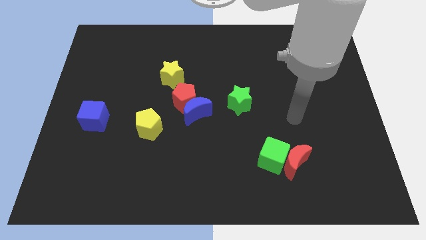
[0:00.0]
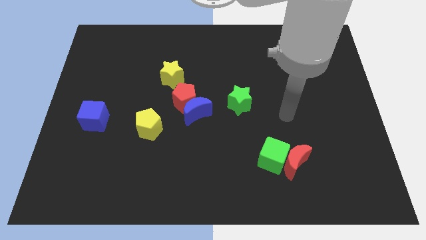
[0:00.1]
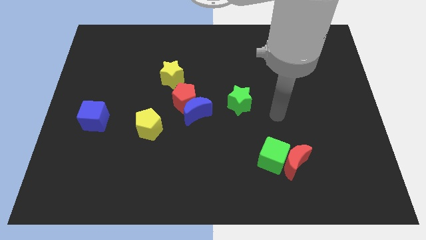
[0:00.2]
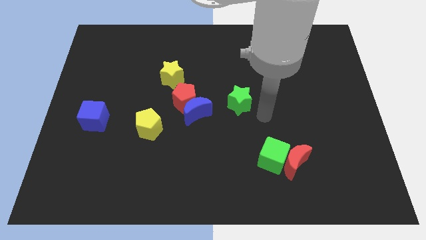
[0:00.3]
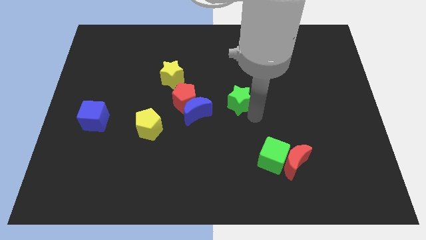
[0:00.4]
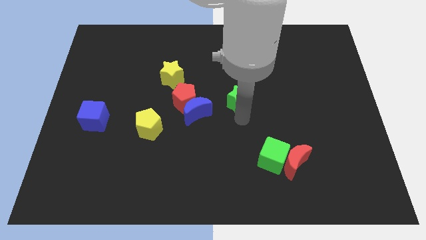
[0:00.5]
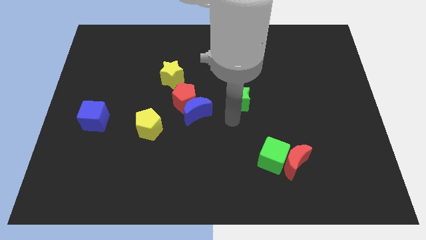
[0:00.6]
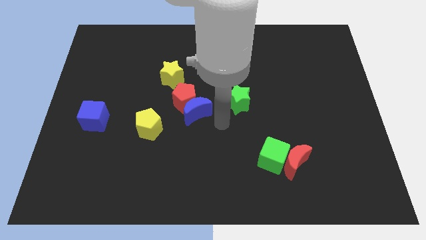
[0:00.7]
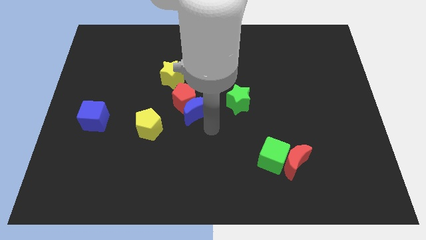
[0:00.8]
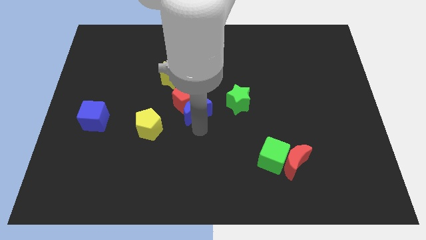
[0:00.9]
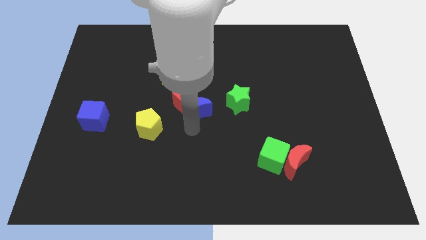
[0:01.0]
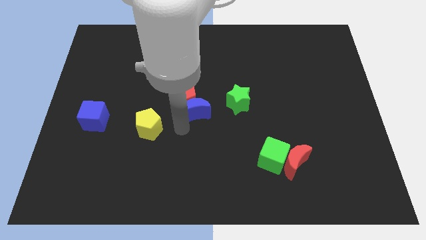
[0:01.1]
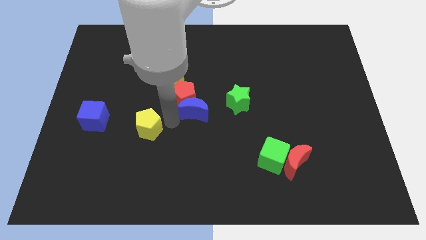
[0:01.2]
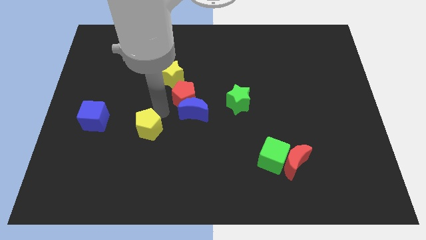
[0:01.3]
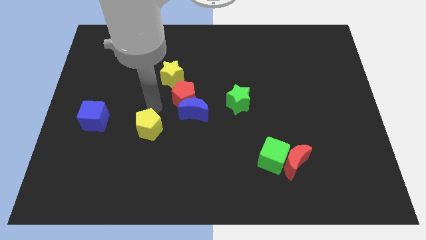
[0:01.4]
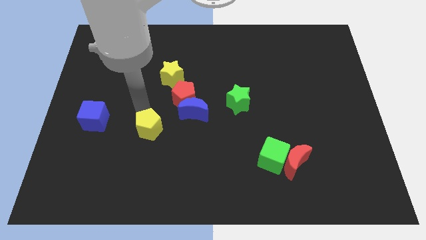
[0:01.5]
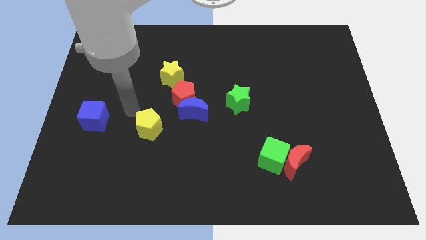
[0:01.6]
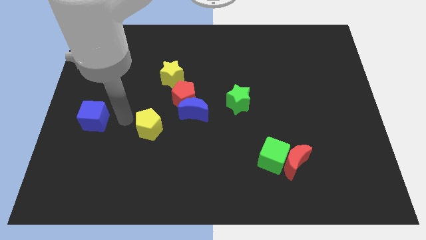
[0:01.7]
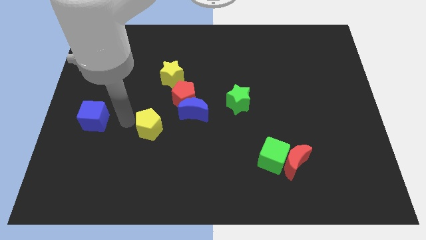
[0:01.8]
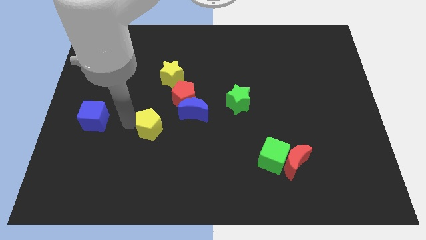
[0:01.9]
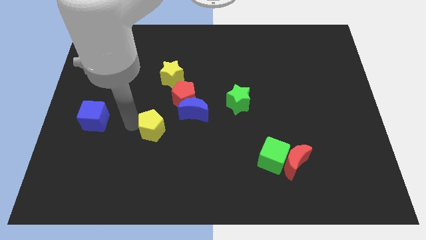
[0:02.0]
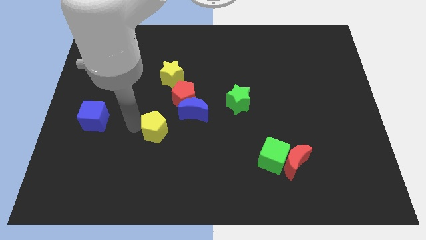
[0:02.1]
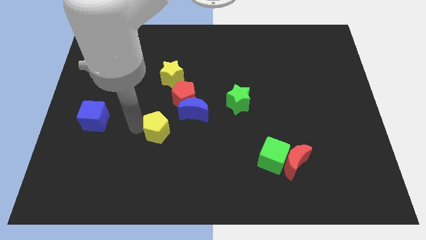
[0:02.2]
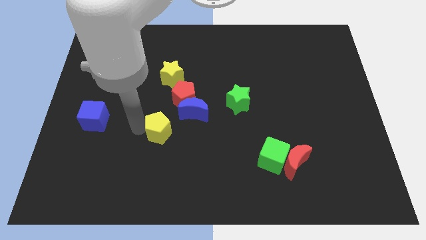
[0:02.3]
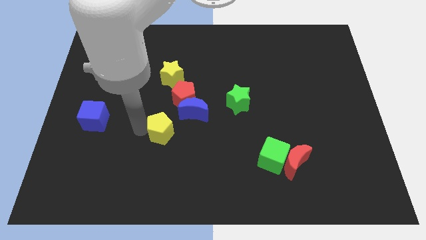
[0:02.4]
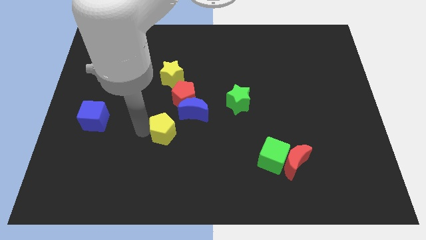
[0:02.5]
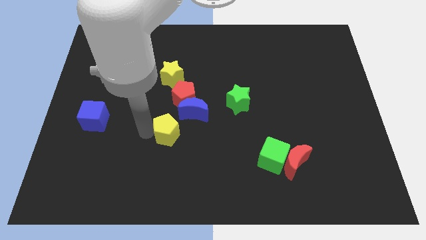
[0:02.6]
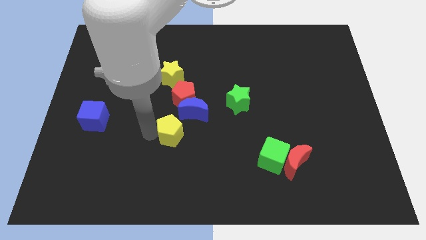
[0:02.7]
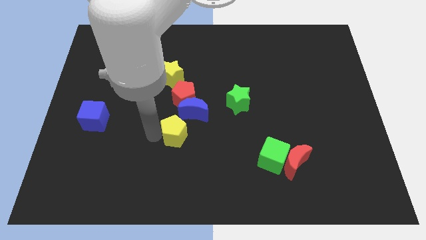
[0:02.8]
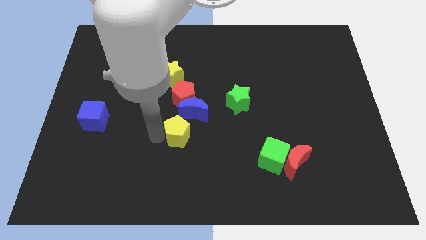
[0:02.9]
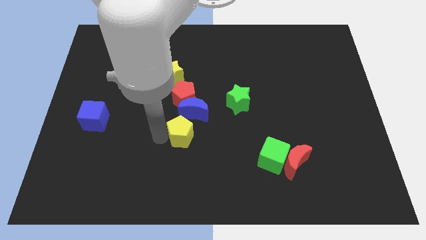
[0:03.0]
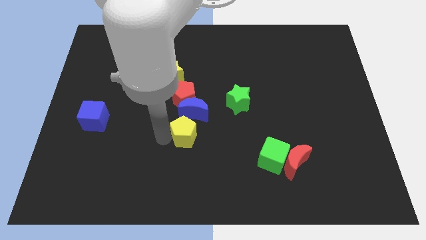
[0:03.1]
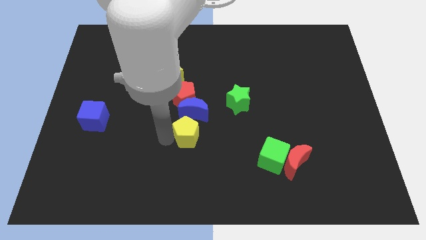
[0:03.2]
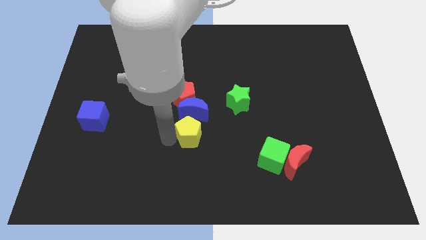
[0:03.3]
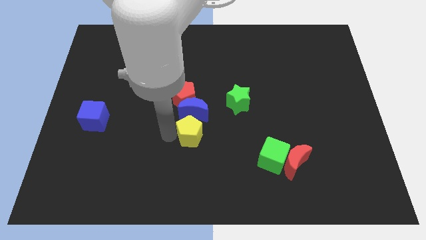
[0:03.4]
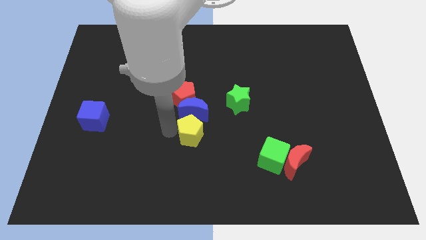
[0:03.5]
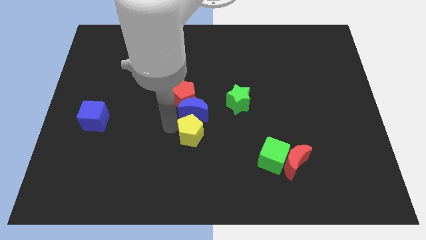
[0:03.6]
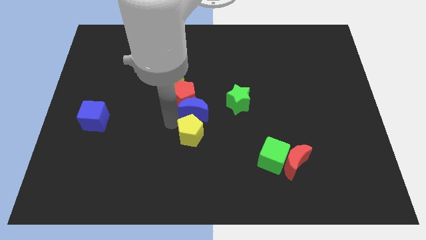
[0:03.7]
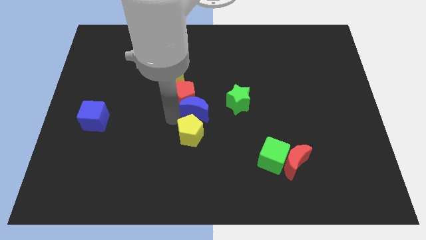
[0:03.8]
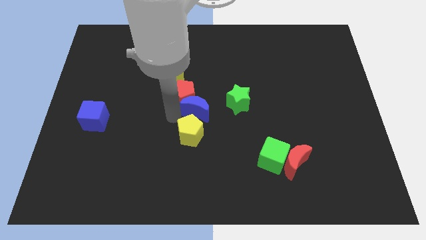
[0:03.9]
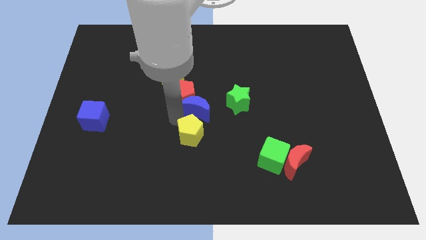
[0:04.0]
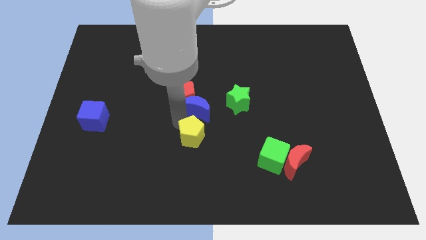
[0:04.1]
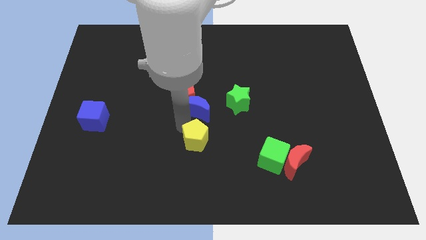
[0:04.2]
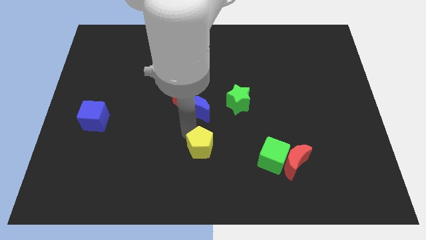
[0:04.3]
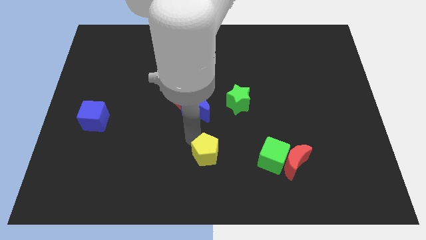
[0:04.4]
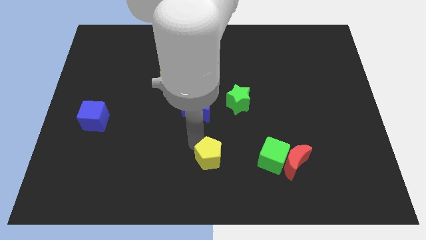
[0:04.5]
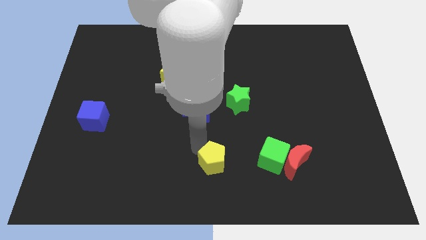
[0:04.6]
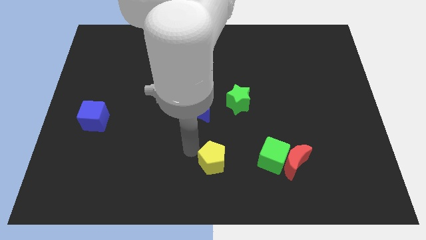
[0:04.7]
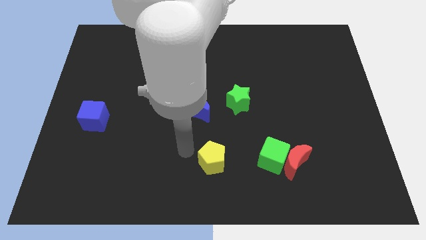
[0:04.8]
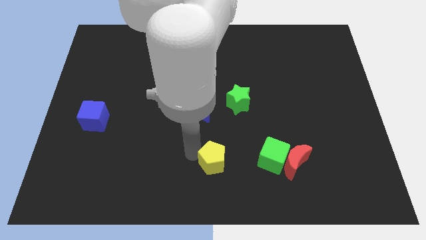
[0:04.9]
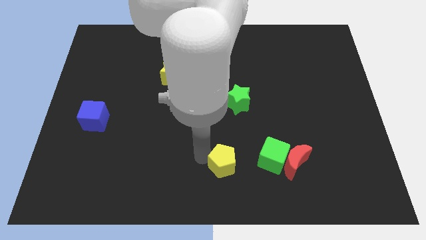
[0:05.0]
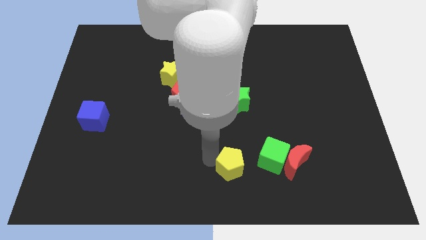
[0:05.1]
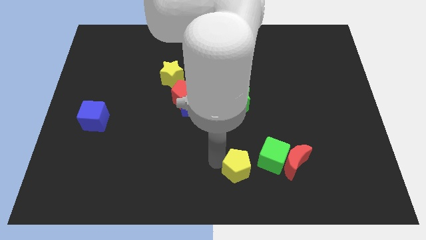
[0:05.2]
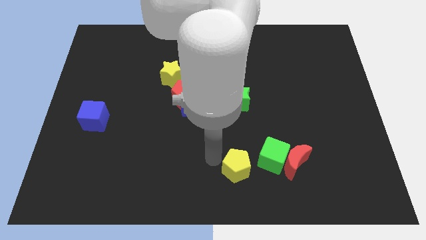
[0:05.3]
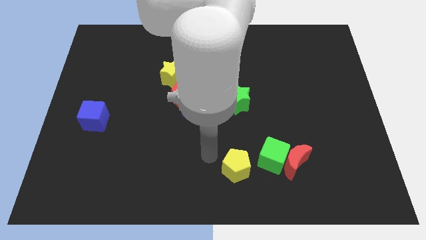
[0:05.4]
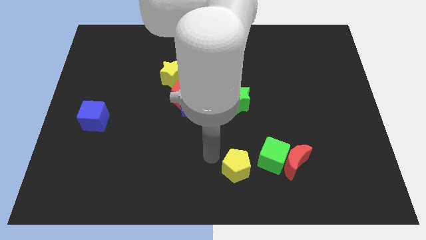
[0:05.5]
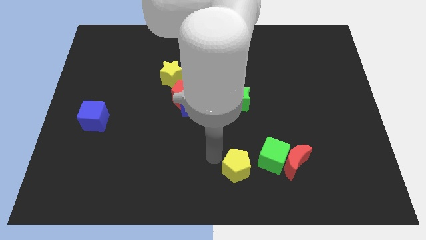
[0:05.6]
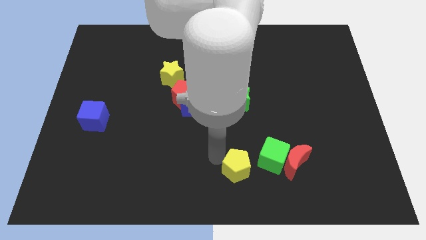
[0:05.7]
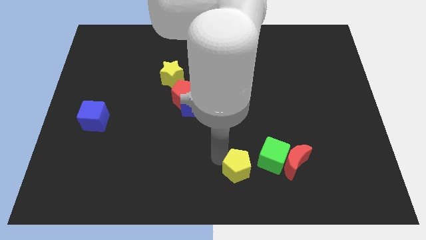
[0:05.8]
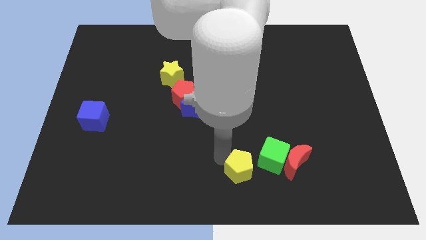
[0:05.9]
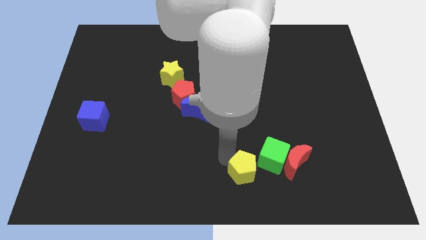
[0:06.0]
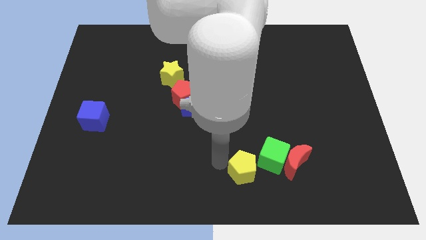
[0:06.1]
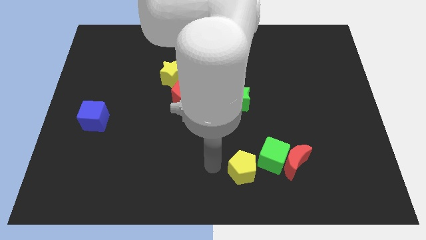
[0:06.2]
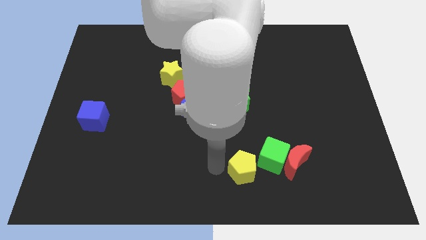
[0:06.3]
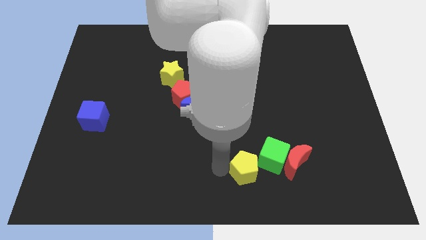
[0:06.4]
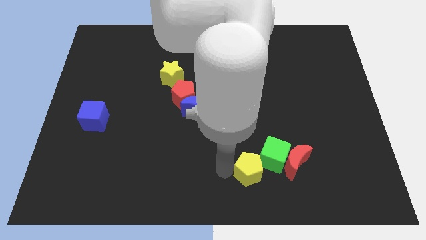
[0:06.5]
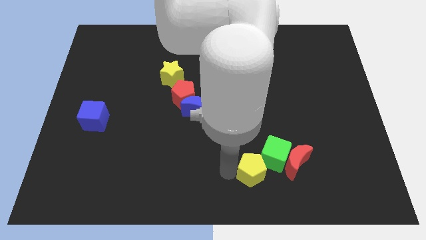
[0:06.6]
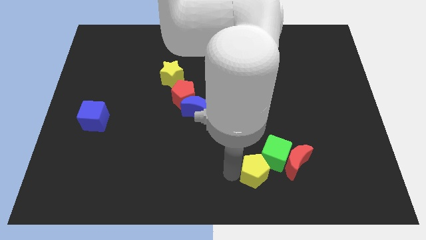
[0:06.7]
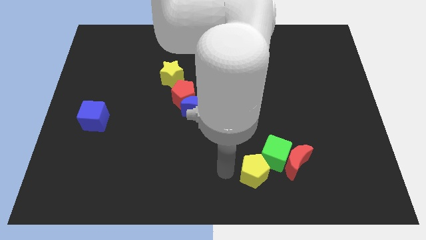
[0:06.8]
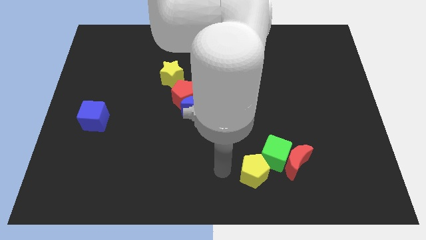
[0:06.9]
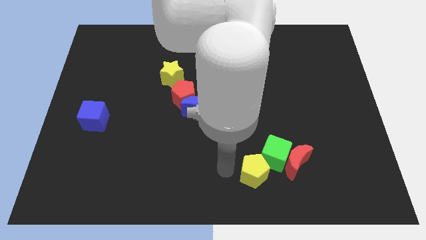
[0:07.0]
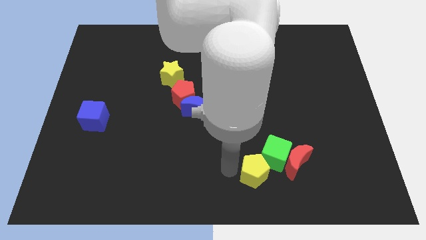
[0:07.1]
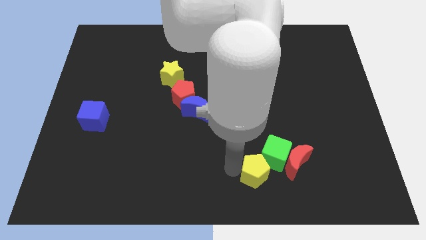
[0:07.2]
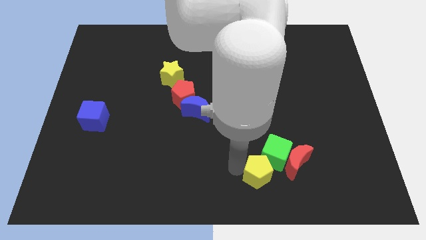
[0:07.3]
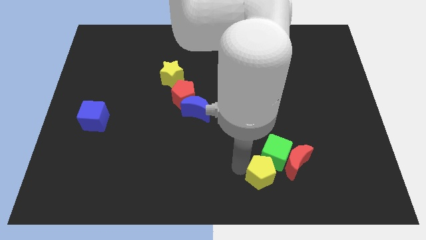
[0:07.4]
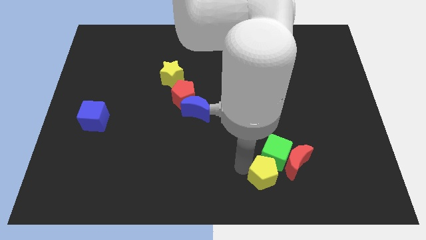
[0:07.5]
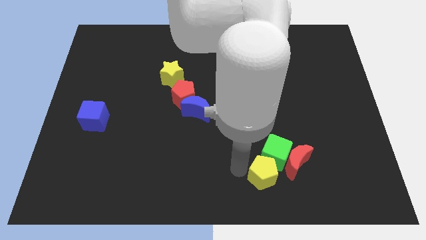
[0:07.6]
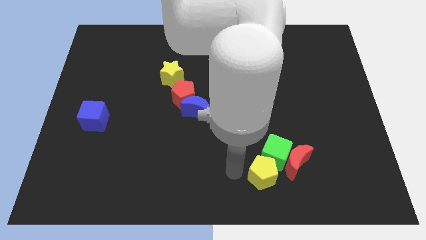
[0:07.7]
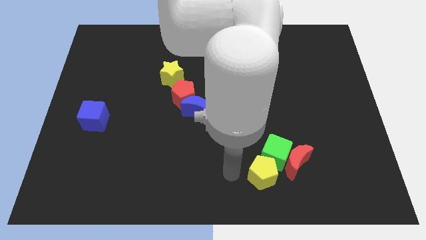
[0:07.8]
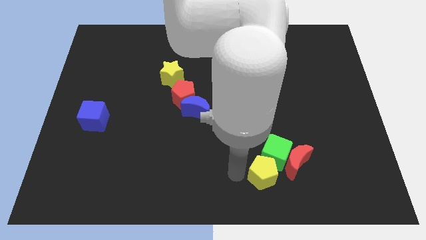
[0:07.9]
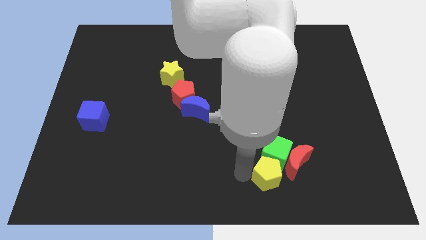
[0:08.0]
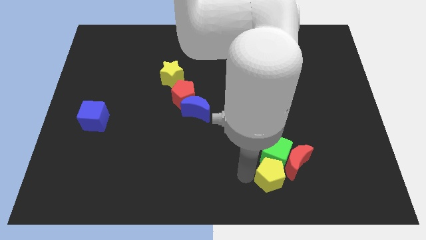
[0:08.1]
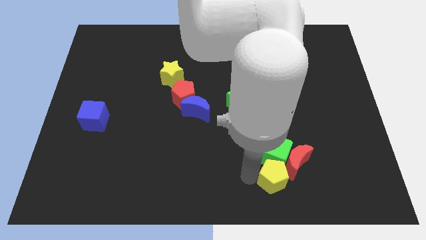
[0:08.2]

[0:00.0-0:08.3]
move the yellow pentagon towards the red moon
